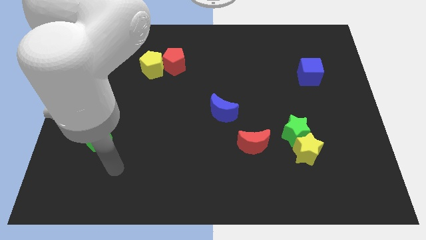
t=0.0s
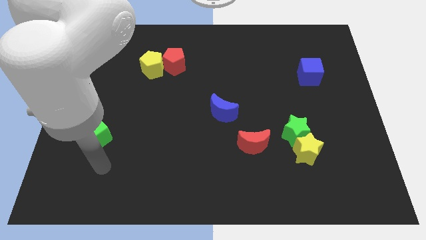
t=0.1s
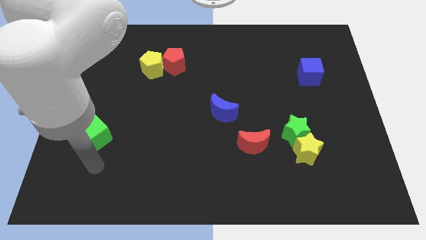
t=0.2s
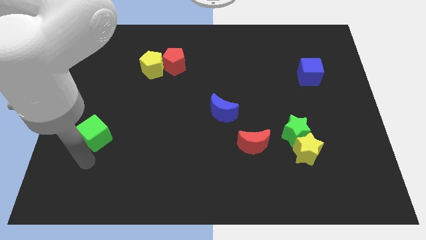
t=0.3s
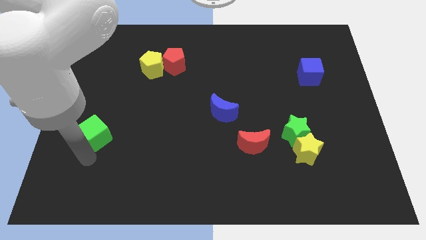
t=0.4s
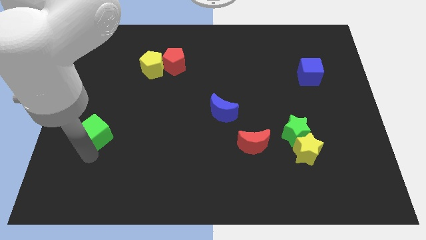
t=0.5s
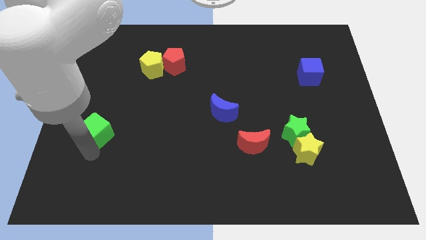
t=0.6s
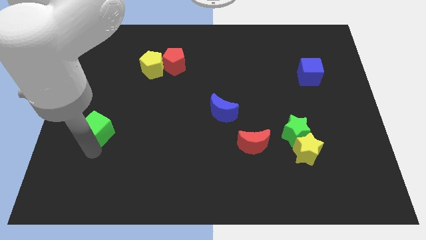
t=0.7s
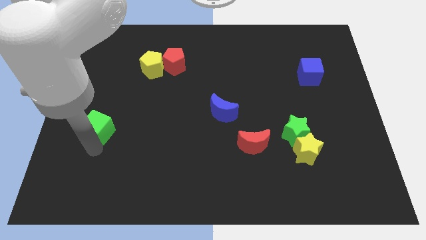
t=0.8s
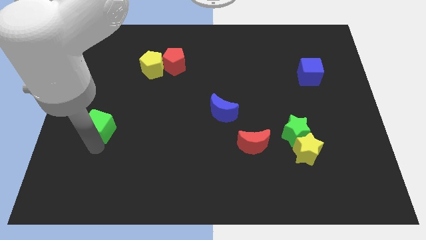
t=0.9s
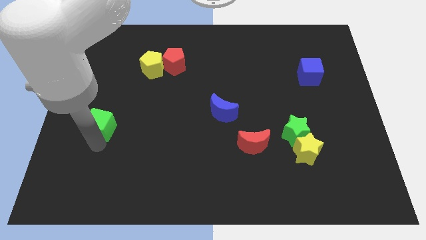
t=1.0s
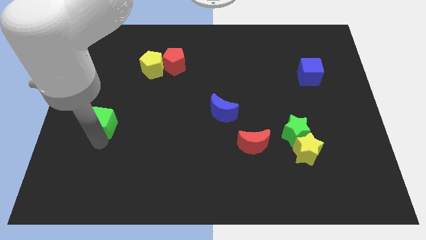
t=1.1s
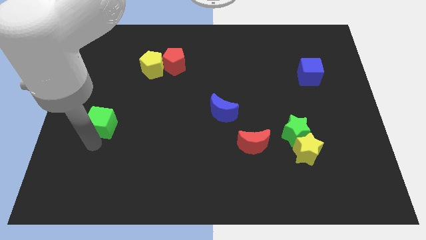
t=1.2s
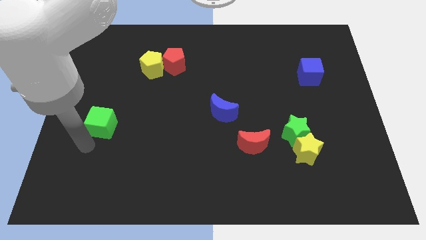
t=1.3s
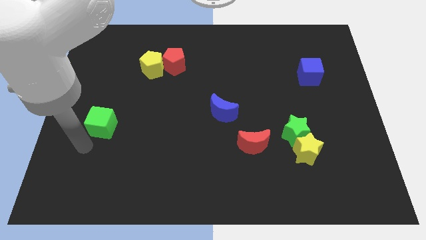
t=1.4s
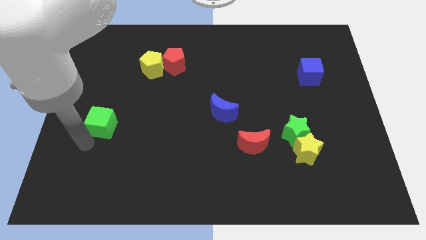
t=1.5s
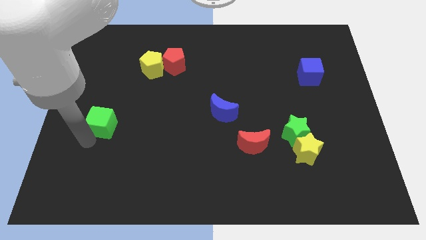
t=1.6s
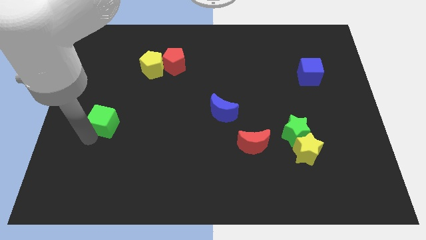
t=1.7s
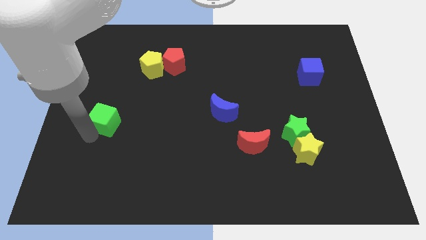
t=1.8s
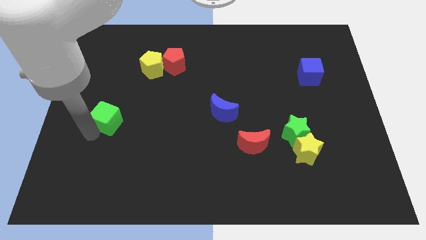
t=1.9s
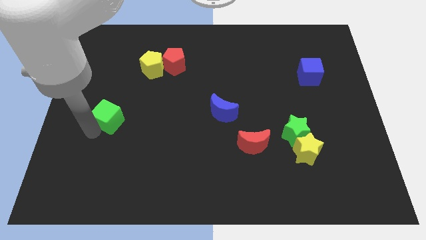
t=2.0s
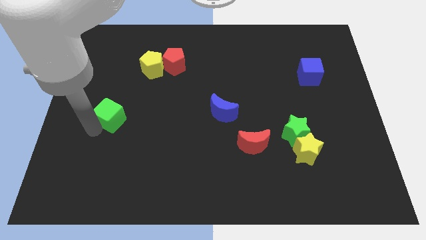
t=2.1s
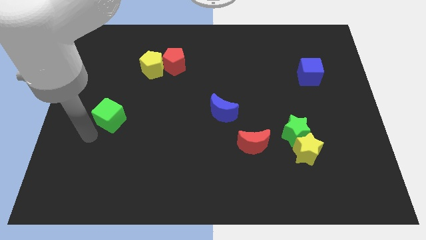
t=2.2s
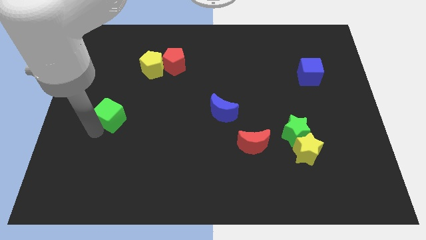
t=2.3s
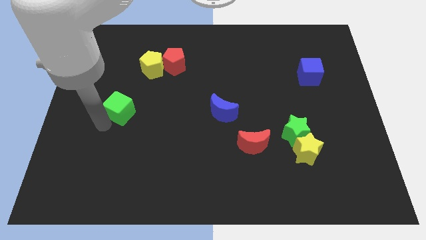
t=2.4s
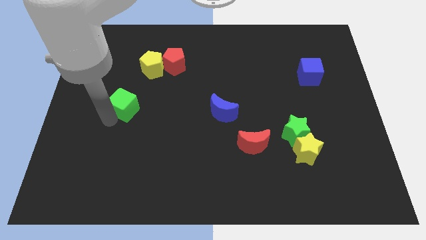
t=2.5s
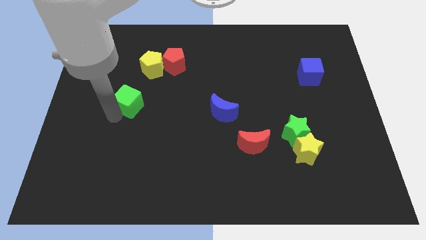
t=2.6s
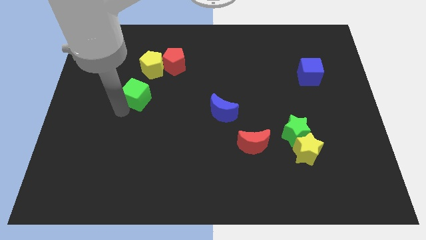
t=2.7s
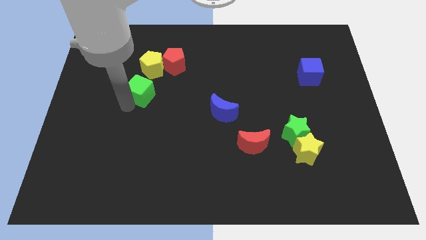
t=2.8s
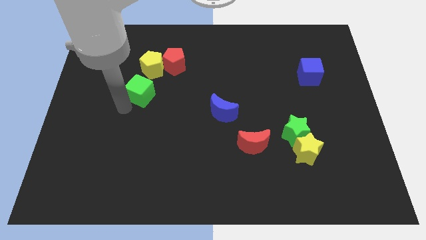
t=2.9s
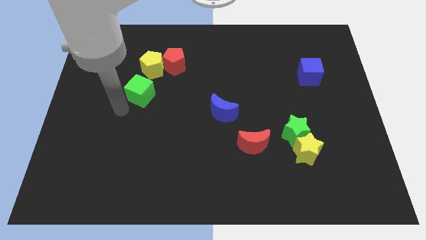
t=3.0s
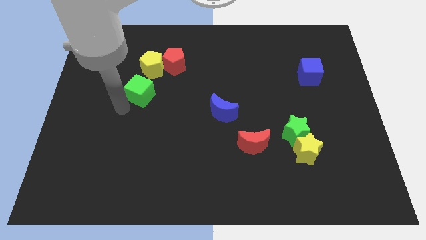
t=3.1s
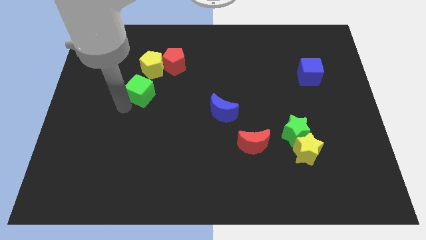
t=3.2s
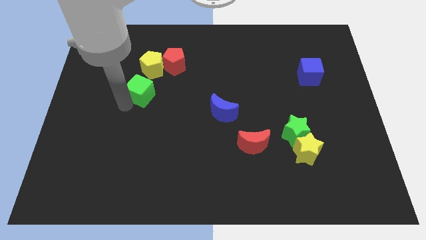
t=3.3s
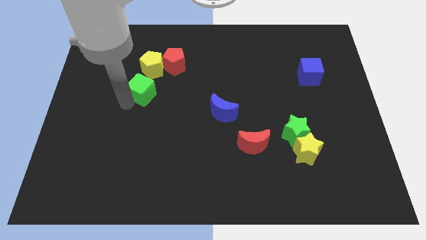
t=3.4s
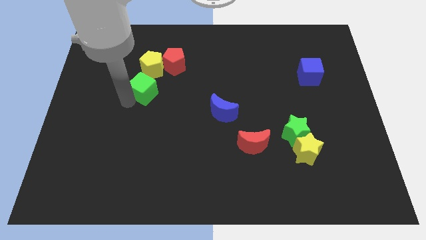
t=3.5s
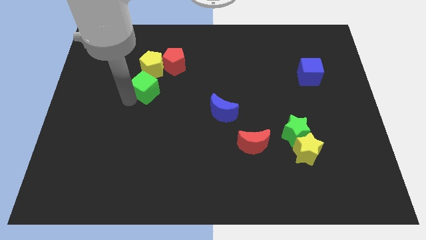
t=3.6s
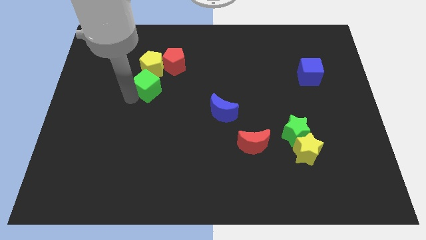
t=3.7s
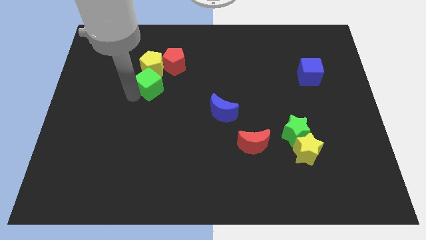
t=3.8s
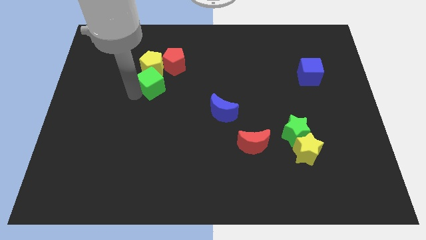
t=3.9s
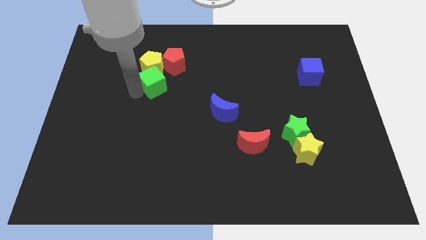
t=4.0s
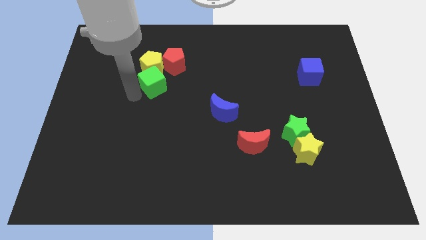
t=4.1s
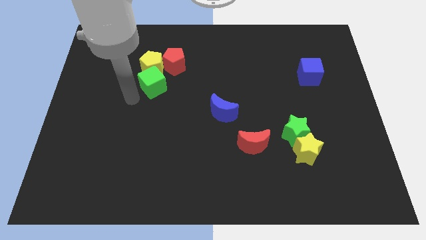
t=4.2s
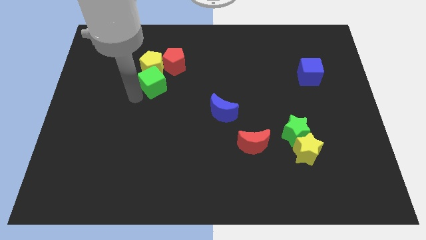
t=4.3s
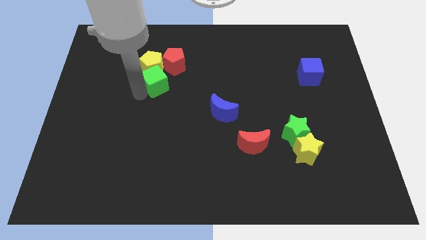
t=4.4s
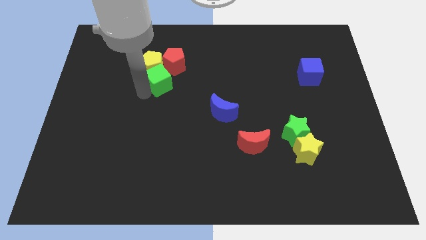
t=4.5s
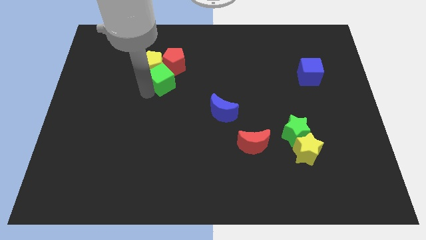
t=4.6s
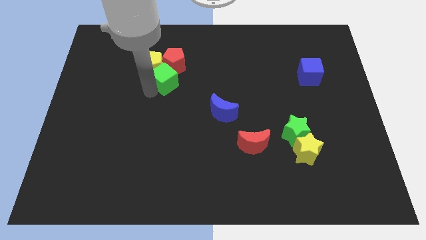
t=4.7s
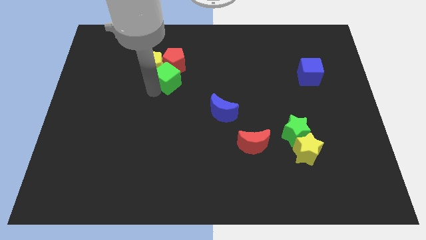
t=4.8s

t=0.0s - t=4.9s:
move the green cube towards the red pentagon

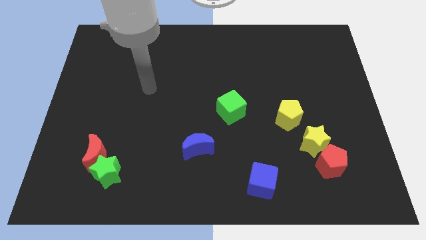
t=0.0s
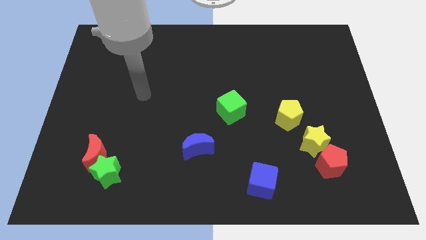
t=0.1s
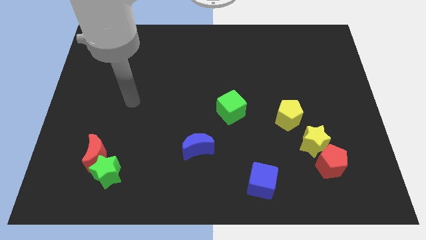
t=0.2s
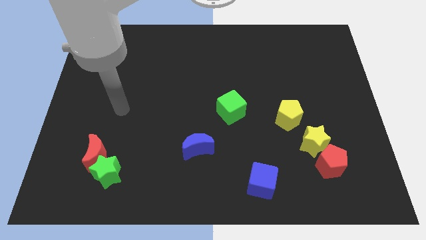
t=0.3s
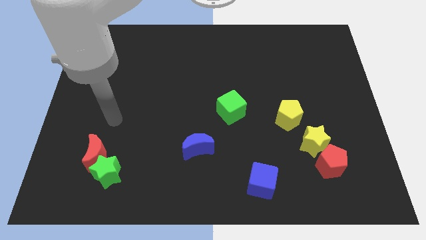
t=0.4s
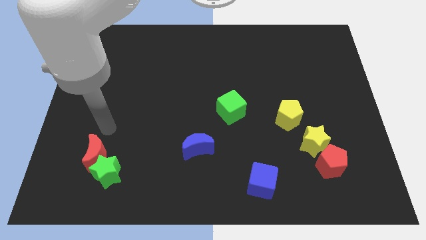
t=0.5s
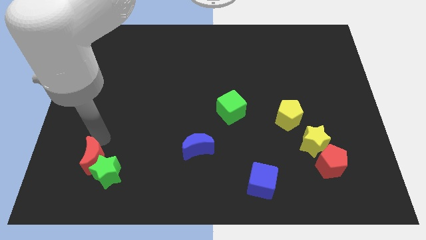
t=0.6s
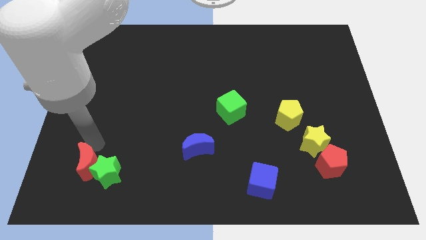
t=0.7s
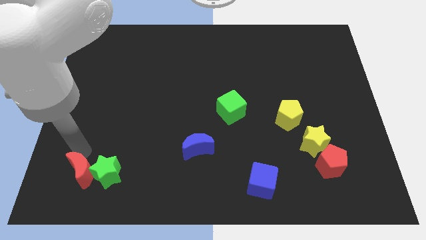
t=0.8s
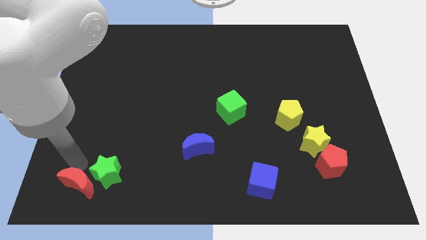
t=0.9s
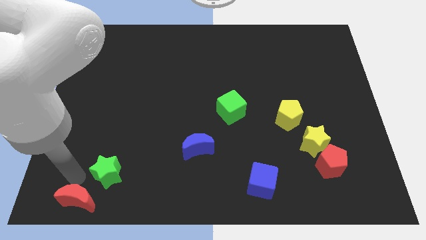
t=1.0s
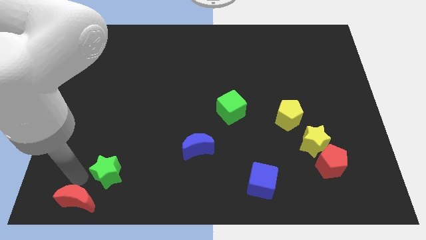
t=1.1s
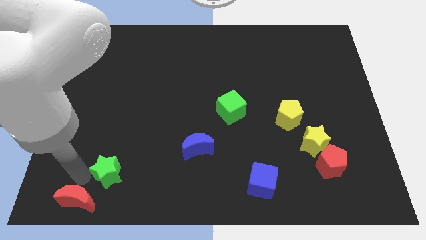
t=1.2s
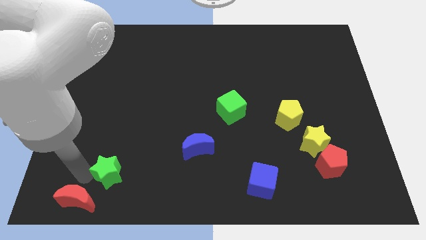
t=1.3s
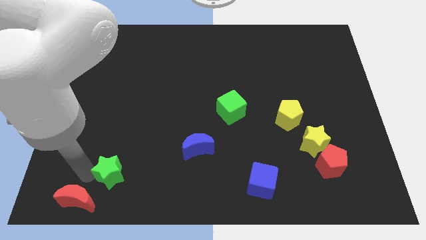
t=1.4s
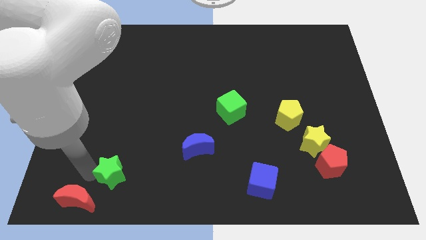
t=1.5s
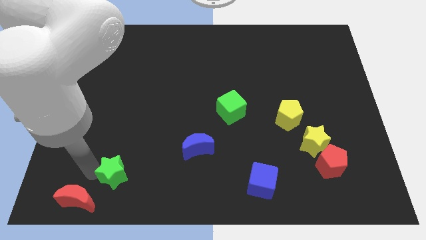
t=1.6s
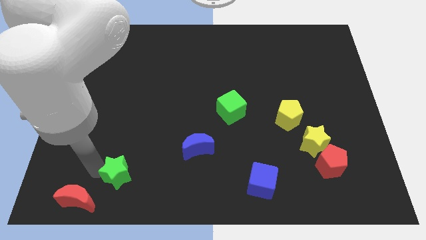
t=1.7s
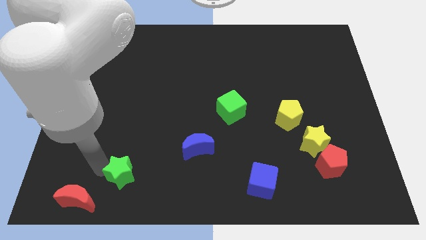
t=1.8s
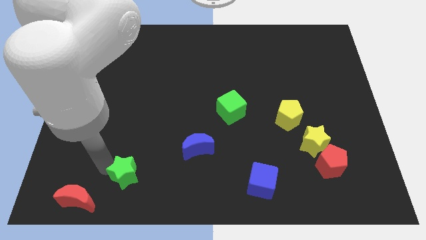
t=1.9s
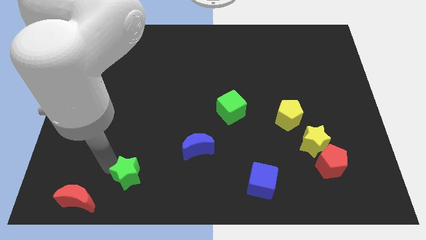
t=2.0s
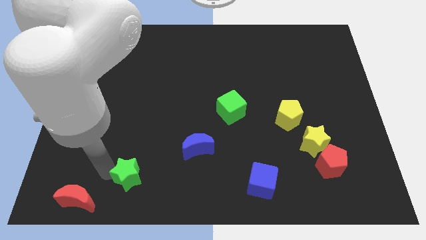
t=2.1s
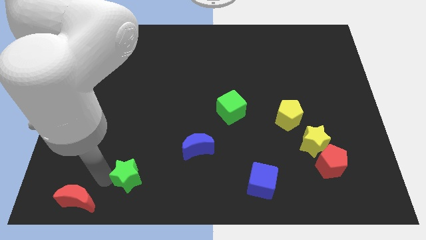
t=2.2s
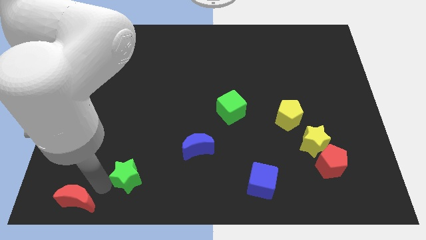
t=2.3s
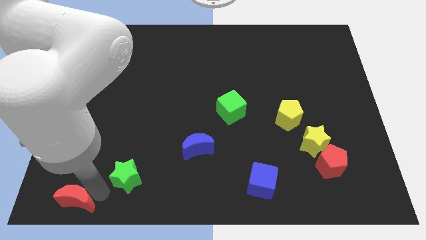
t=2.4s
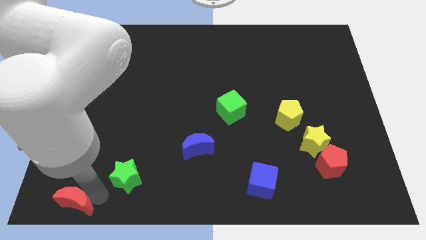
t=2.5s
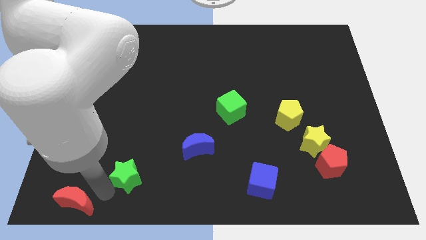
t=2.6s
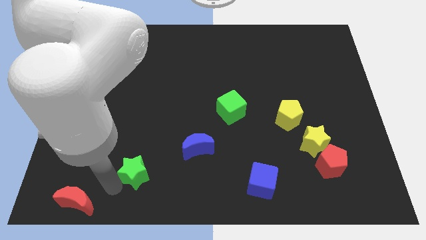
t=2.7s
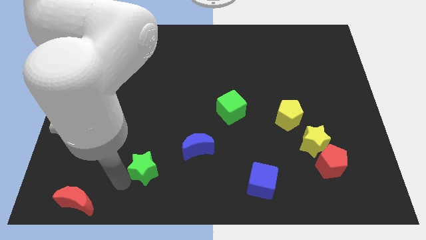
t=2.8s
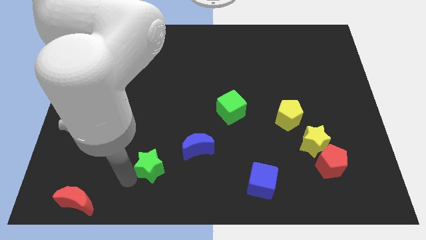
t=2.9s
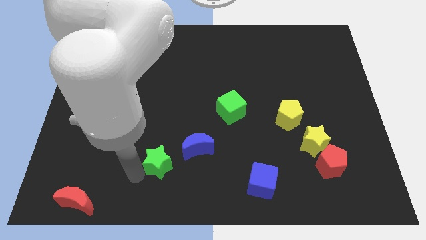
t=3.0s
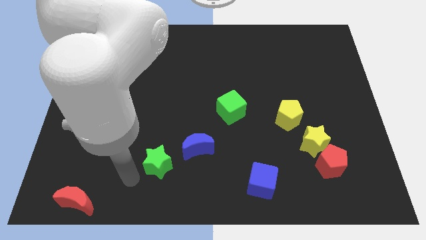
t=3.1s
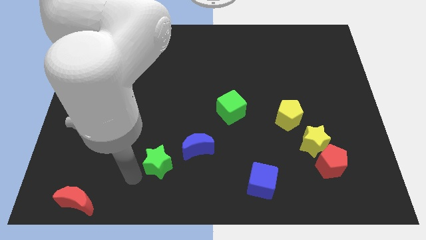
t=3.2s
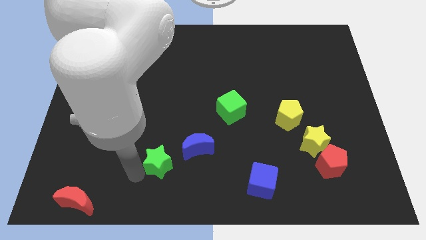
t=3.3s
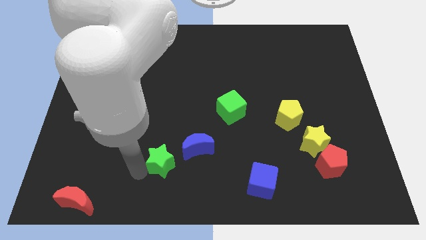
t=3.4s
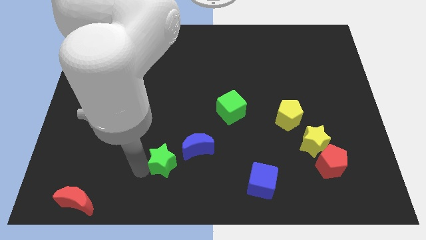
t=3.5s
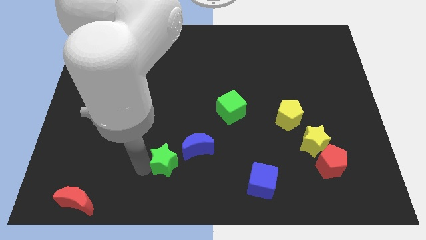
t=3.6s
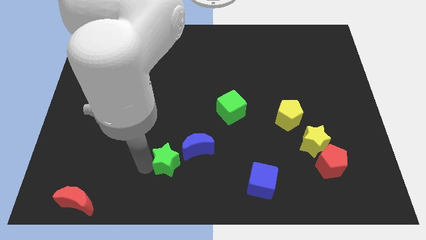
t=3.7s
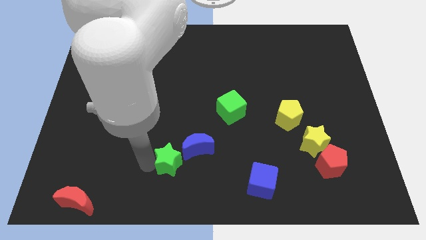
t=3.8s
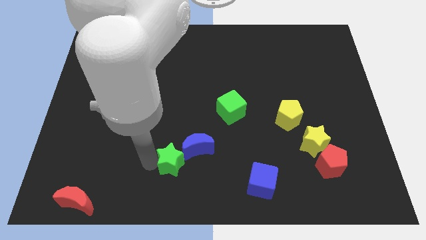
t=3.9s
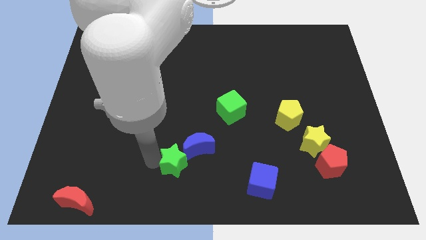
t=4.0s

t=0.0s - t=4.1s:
slide the green star to the blue moon
